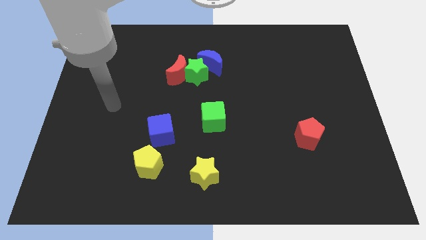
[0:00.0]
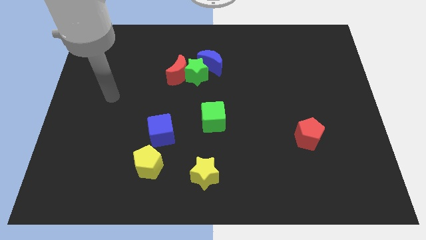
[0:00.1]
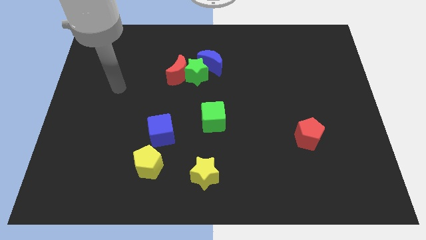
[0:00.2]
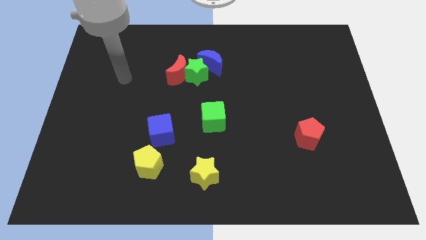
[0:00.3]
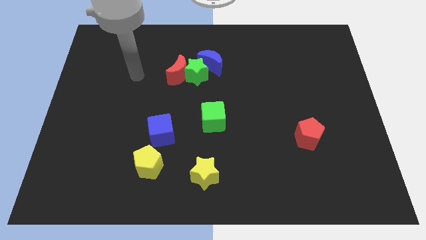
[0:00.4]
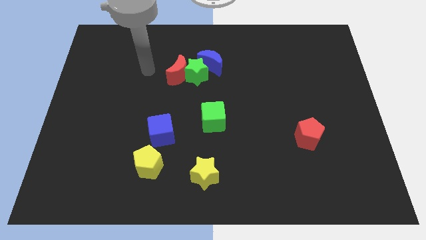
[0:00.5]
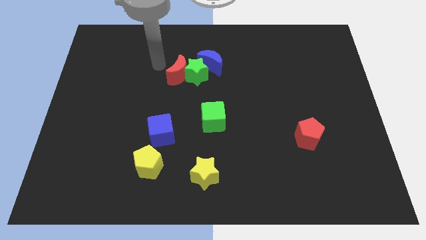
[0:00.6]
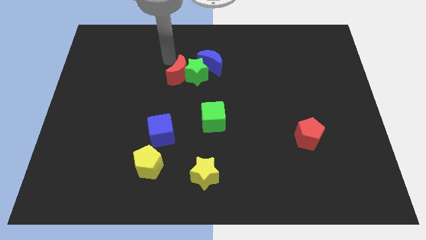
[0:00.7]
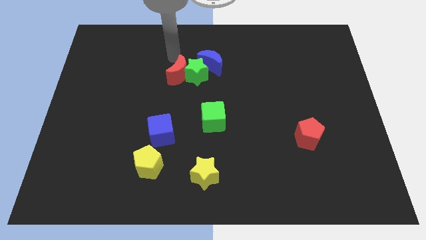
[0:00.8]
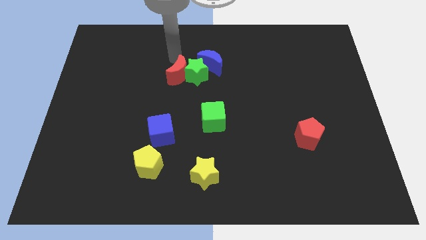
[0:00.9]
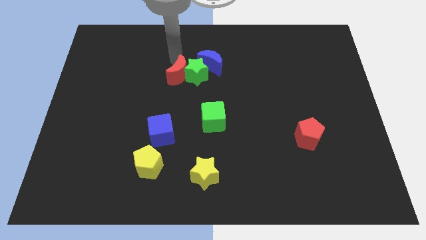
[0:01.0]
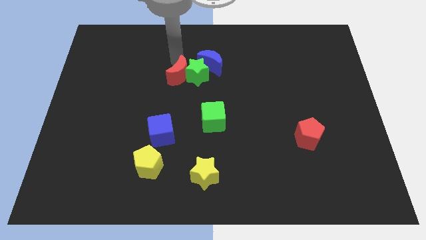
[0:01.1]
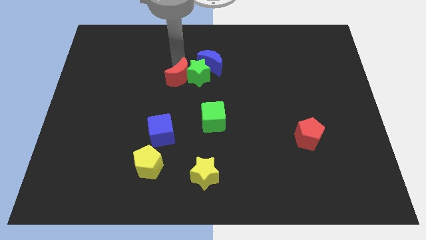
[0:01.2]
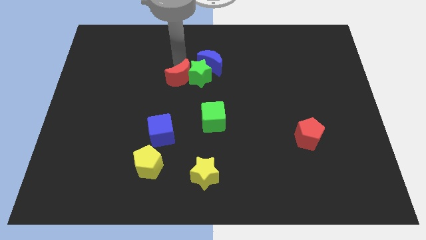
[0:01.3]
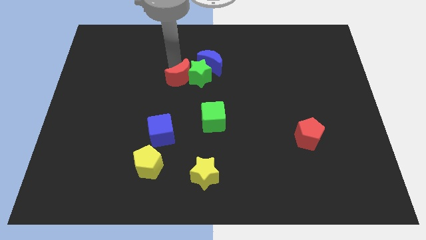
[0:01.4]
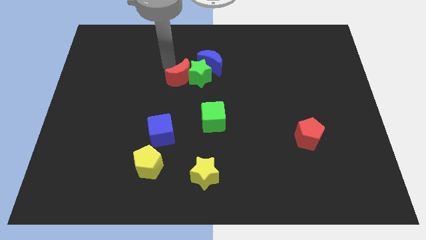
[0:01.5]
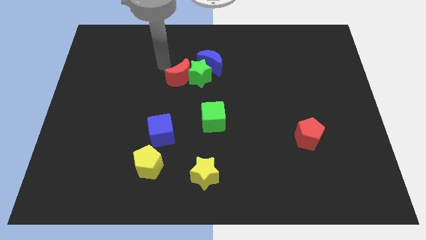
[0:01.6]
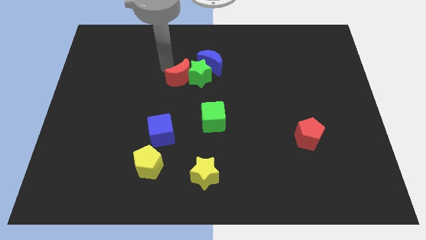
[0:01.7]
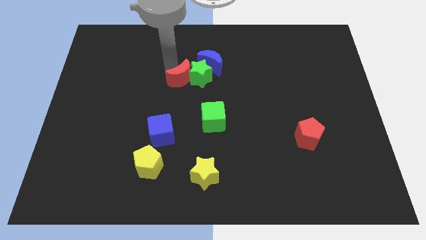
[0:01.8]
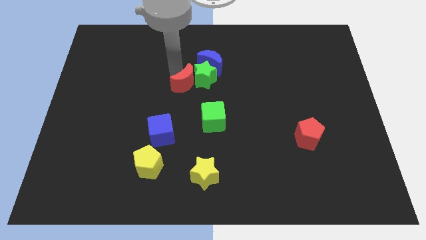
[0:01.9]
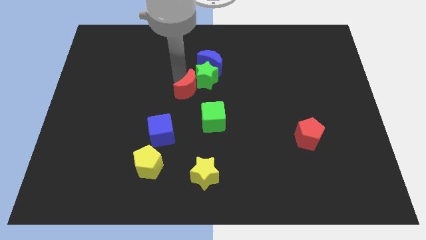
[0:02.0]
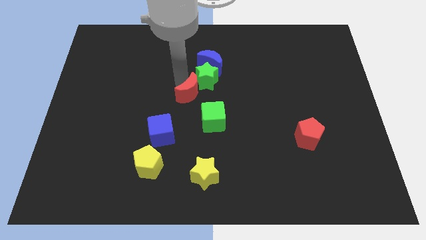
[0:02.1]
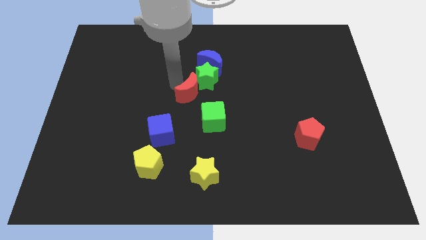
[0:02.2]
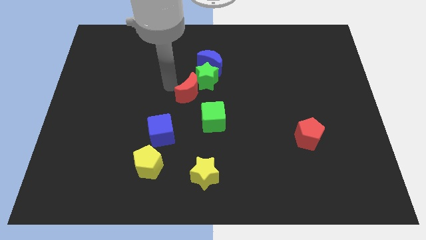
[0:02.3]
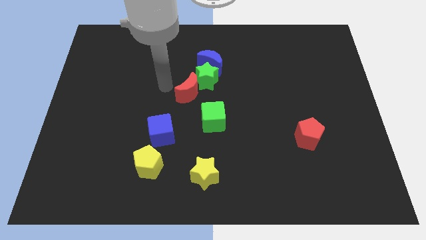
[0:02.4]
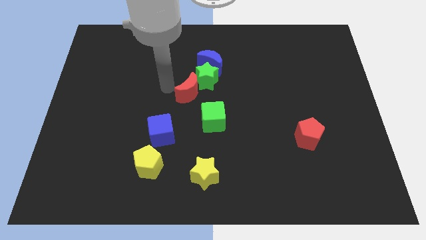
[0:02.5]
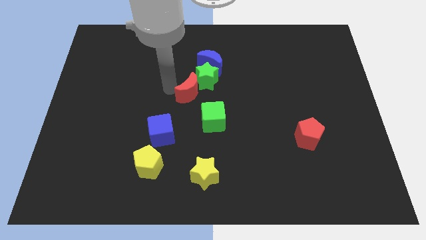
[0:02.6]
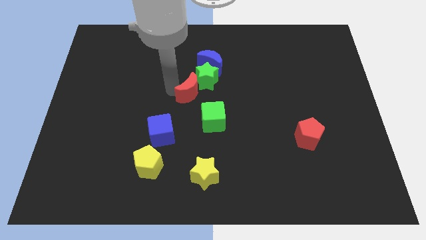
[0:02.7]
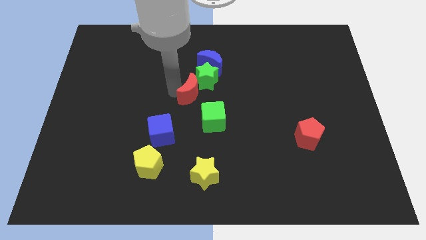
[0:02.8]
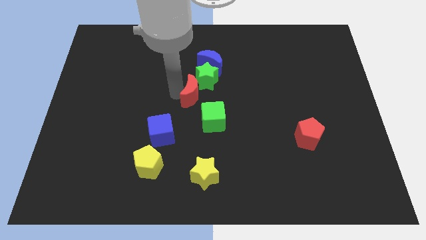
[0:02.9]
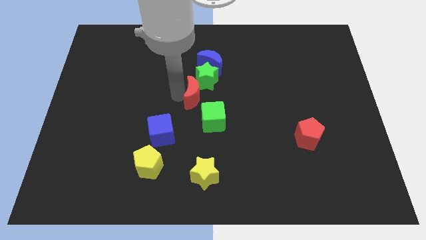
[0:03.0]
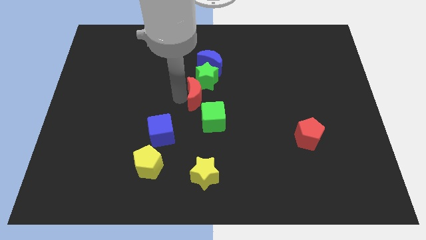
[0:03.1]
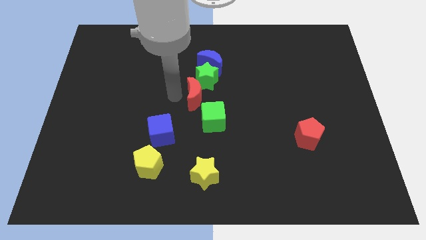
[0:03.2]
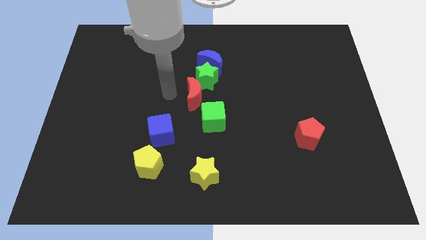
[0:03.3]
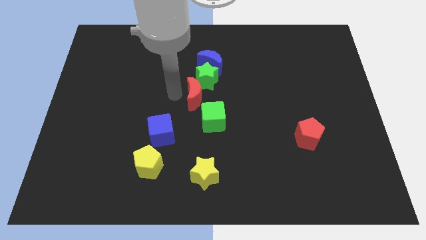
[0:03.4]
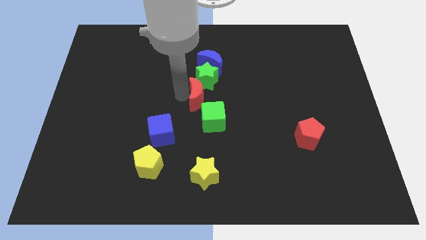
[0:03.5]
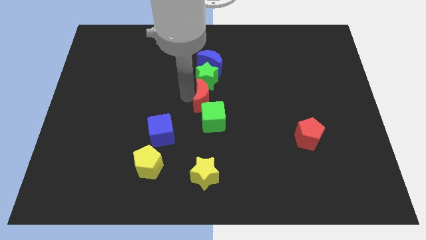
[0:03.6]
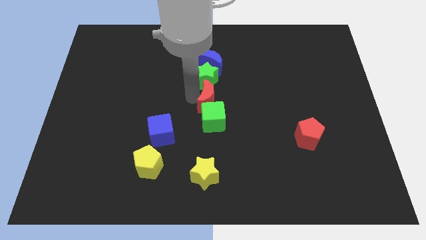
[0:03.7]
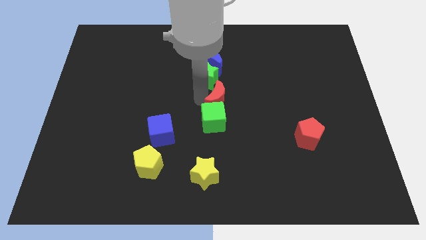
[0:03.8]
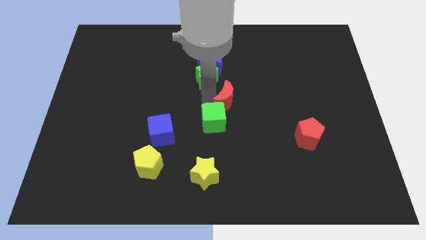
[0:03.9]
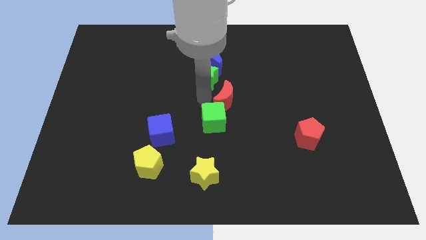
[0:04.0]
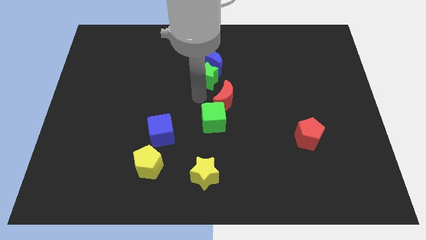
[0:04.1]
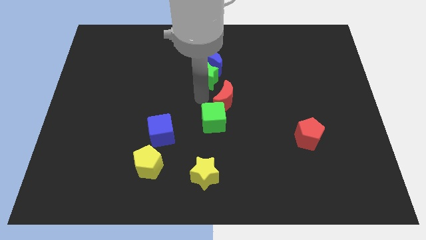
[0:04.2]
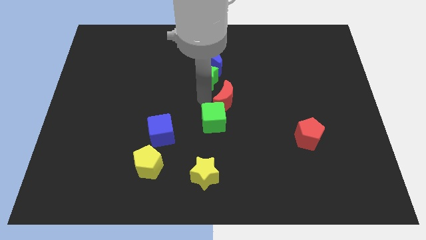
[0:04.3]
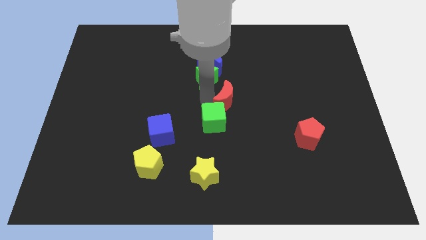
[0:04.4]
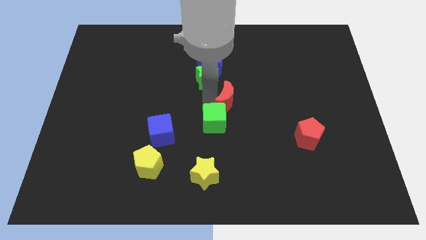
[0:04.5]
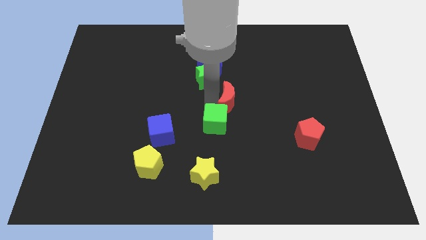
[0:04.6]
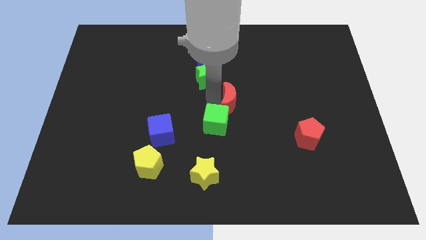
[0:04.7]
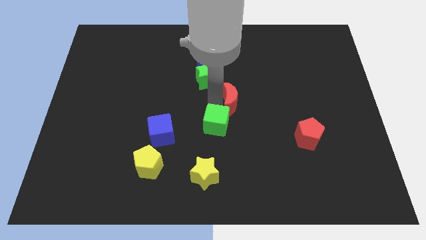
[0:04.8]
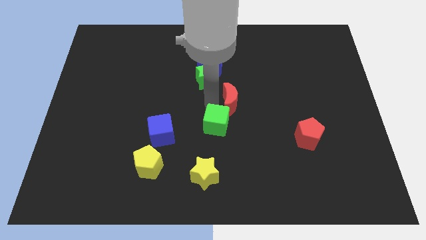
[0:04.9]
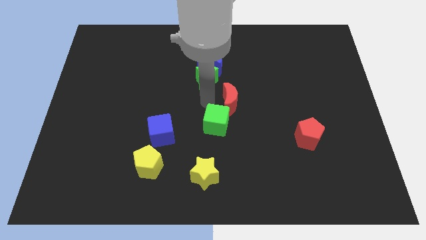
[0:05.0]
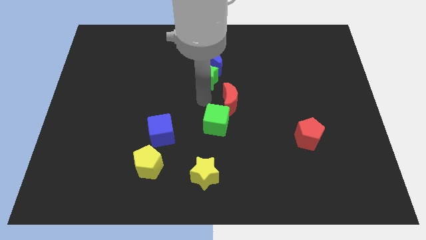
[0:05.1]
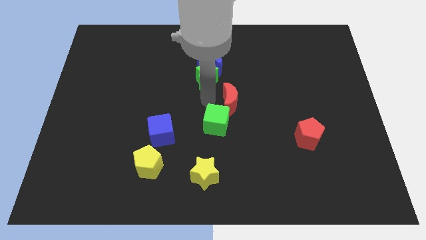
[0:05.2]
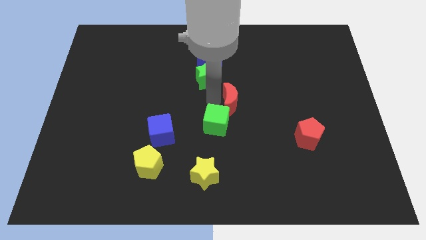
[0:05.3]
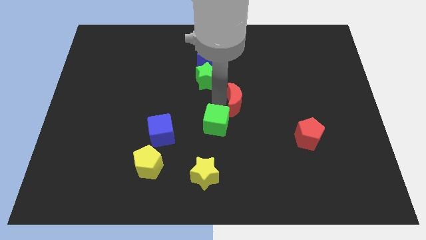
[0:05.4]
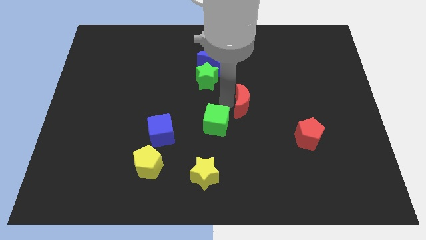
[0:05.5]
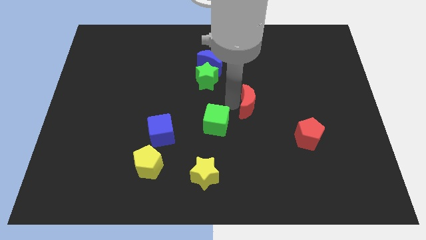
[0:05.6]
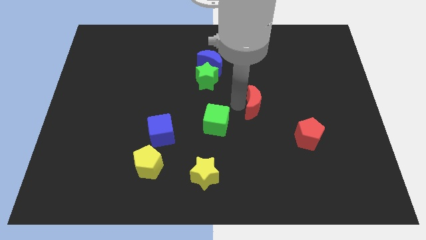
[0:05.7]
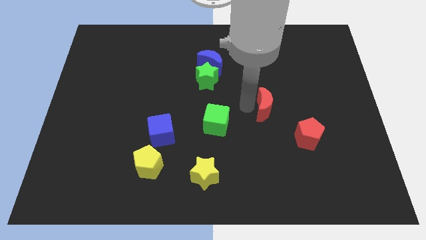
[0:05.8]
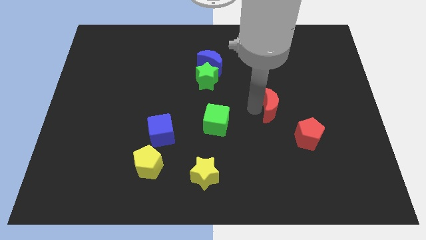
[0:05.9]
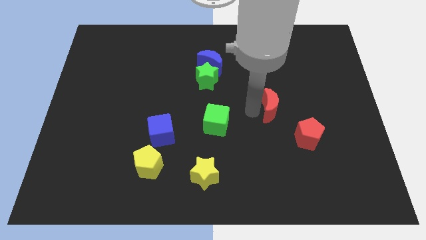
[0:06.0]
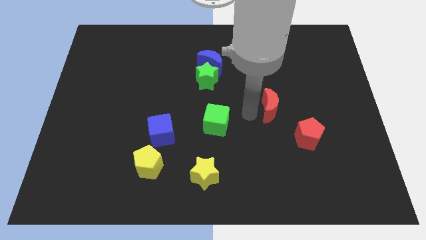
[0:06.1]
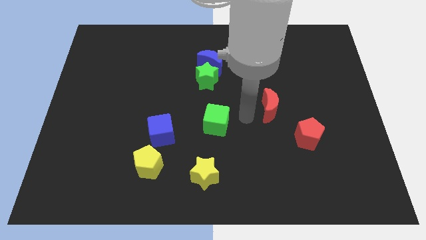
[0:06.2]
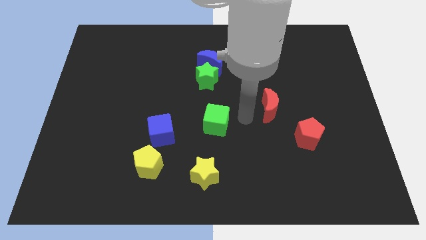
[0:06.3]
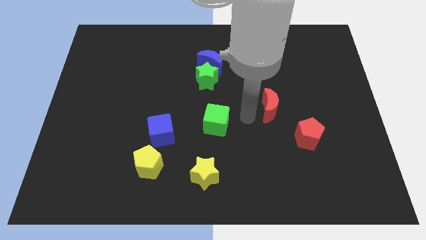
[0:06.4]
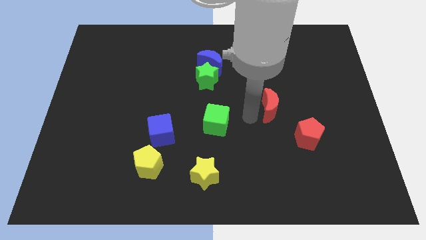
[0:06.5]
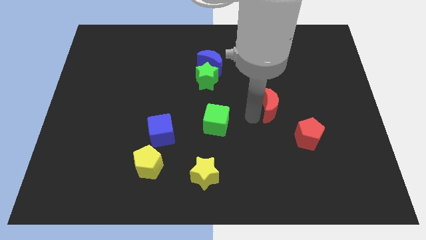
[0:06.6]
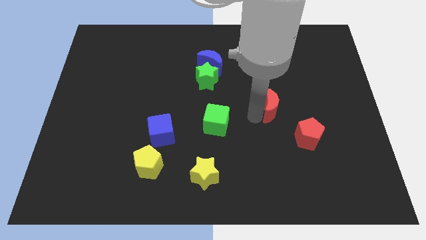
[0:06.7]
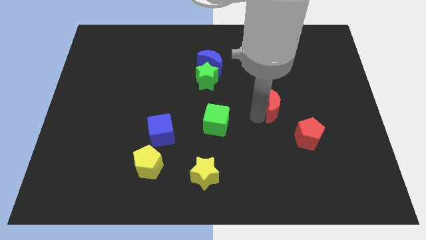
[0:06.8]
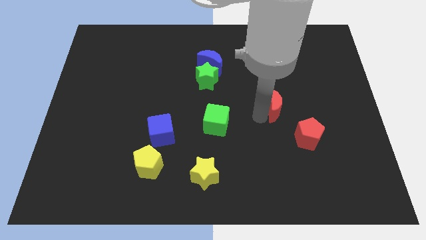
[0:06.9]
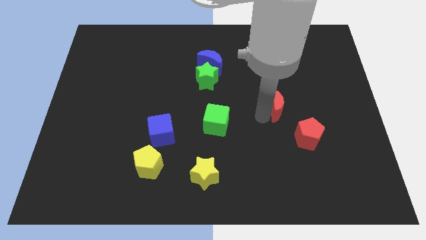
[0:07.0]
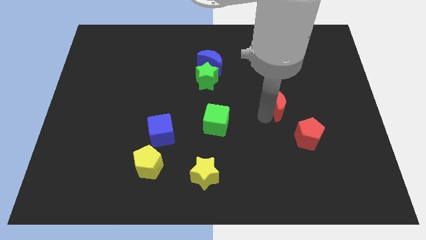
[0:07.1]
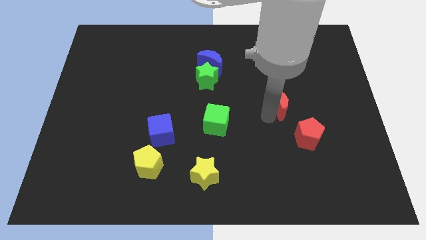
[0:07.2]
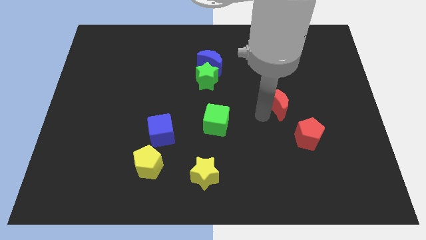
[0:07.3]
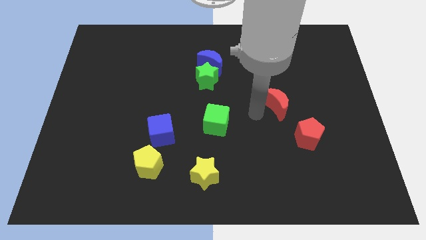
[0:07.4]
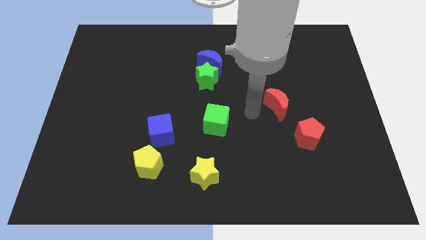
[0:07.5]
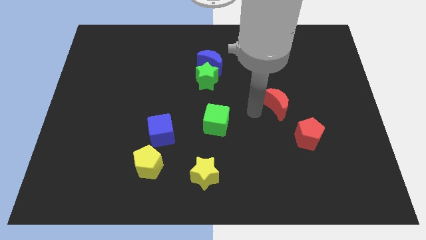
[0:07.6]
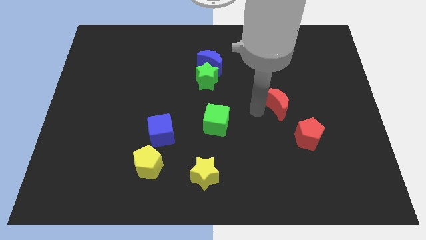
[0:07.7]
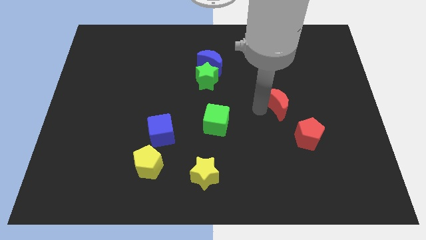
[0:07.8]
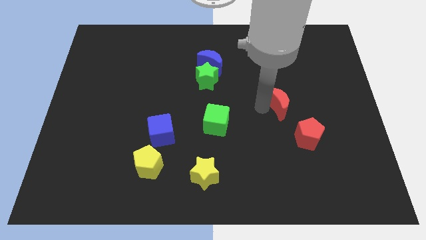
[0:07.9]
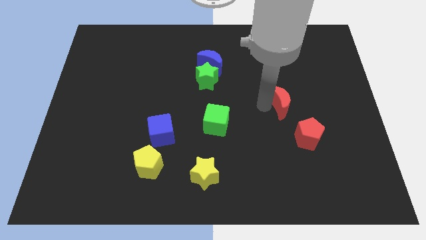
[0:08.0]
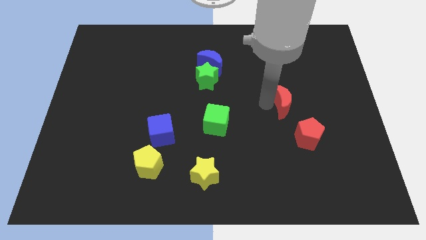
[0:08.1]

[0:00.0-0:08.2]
move the red moon to the top side of the red pentagon
